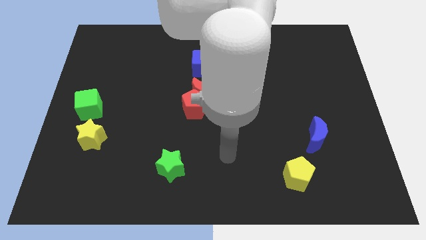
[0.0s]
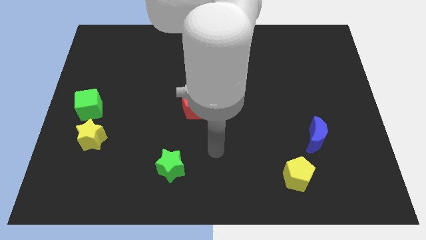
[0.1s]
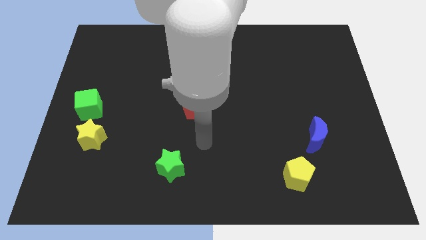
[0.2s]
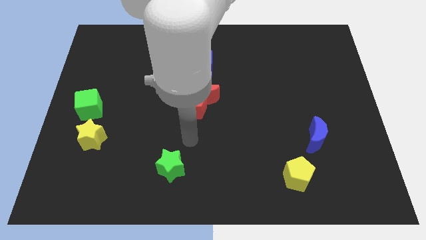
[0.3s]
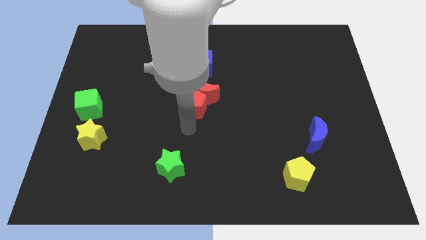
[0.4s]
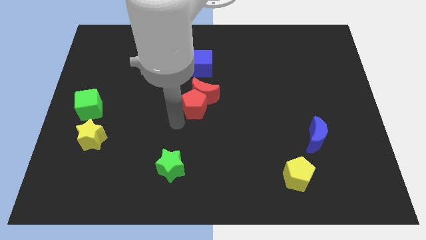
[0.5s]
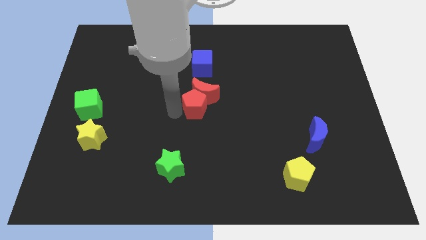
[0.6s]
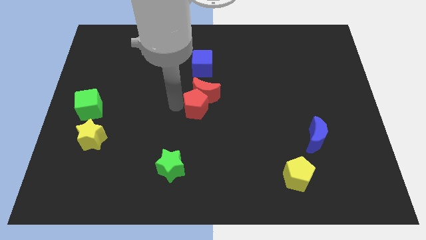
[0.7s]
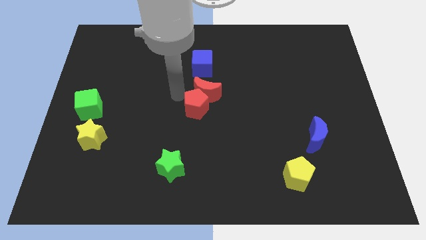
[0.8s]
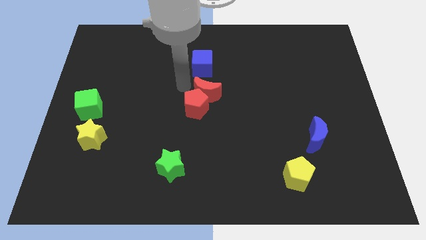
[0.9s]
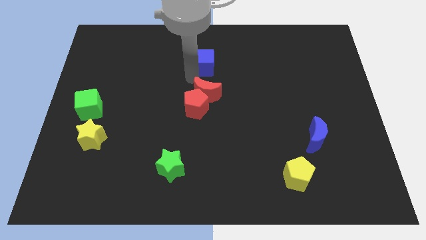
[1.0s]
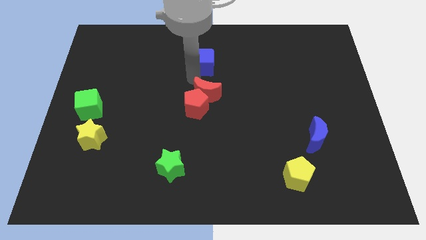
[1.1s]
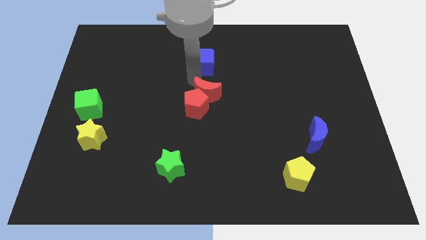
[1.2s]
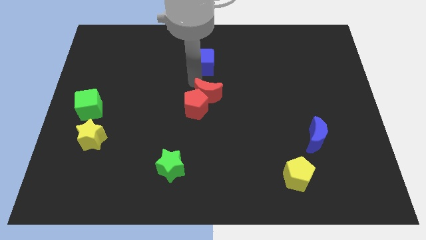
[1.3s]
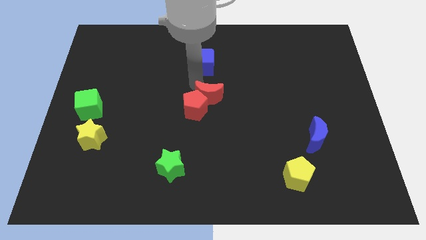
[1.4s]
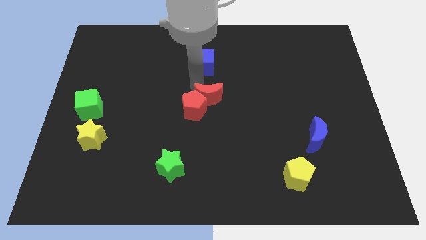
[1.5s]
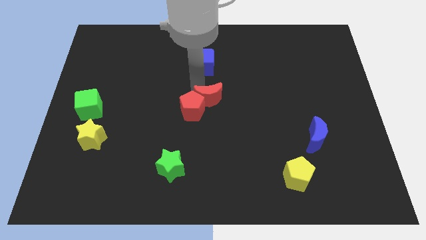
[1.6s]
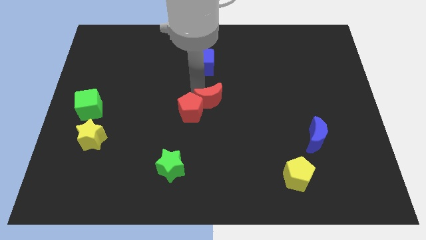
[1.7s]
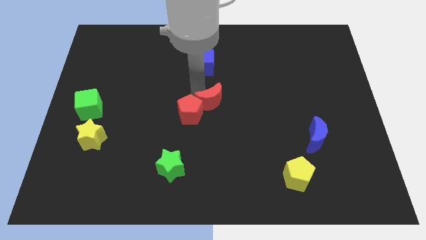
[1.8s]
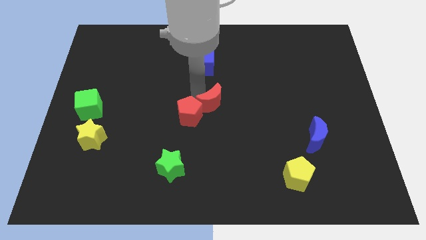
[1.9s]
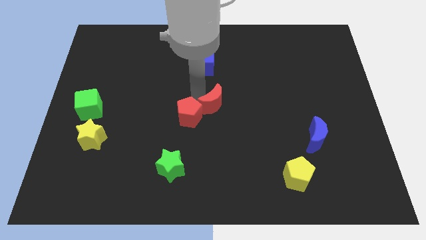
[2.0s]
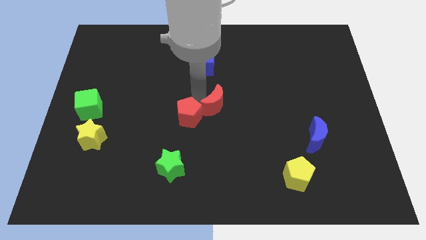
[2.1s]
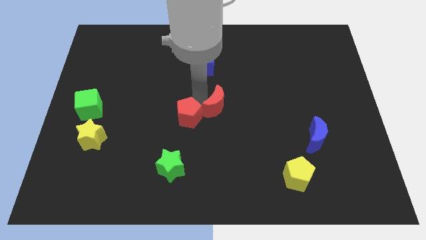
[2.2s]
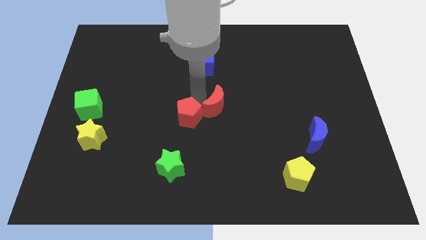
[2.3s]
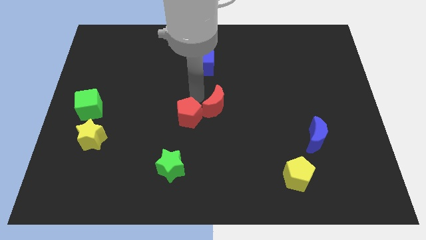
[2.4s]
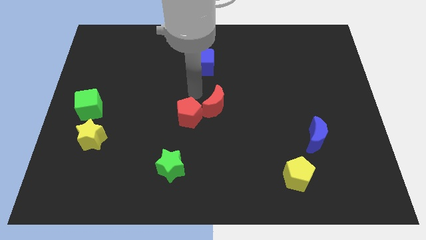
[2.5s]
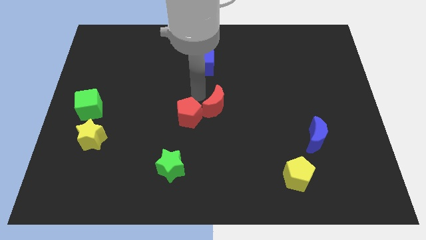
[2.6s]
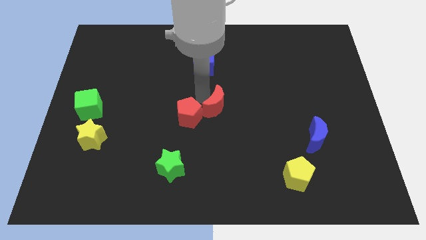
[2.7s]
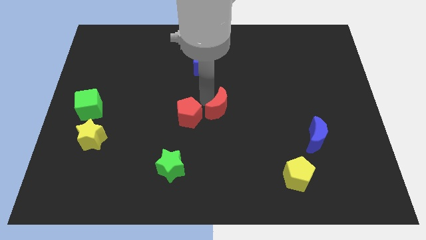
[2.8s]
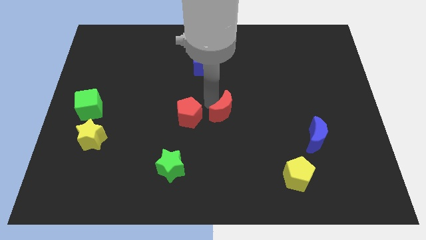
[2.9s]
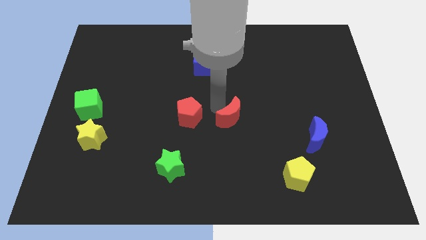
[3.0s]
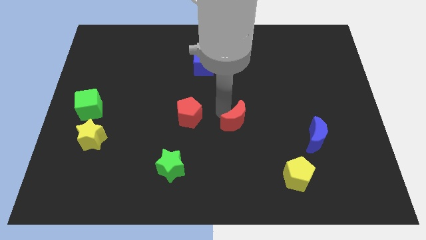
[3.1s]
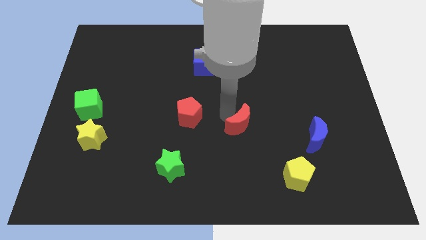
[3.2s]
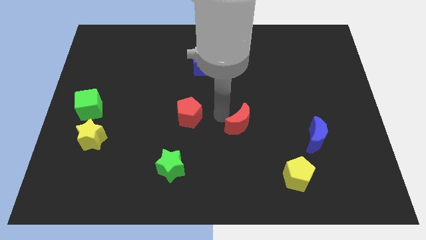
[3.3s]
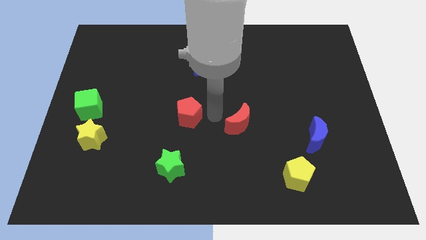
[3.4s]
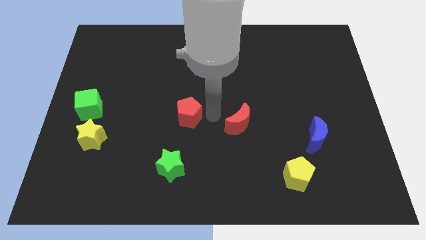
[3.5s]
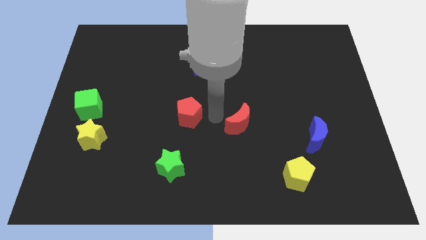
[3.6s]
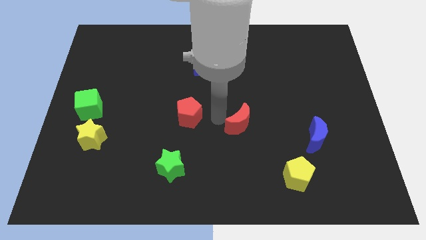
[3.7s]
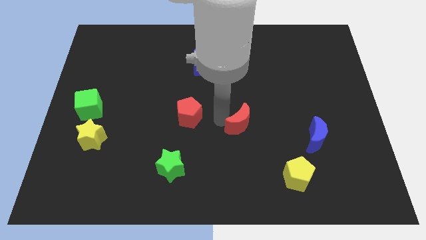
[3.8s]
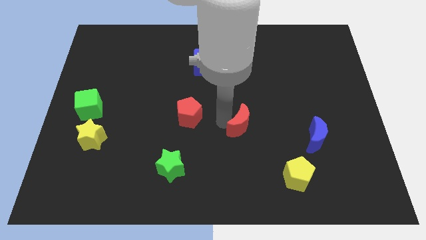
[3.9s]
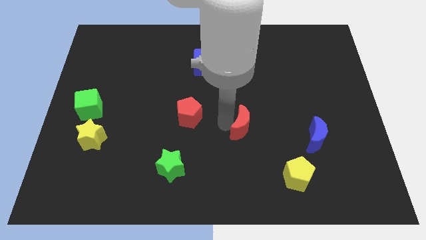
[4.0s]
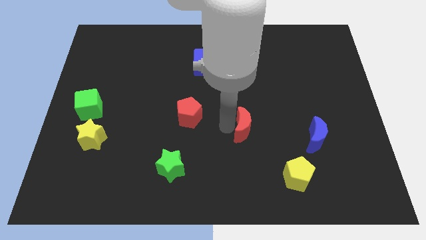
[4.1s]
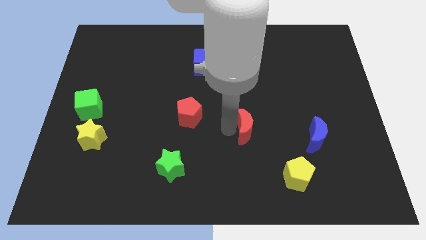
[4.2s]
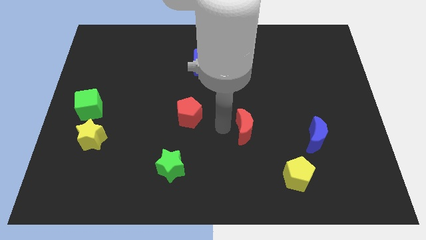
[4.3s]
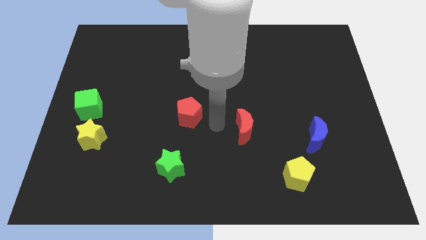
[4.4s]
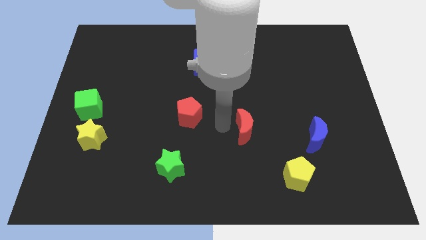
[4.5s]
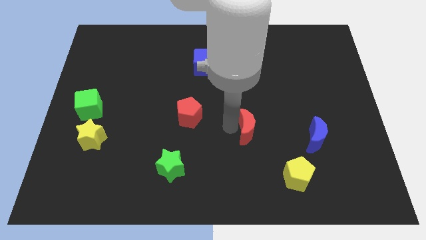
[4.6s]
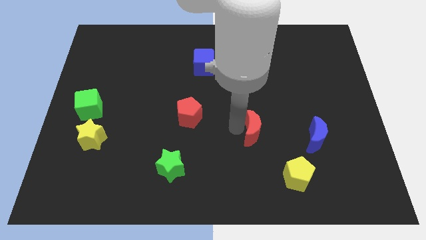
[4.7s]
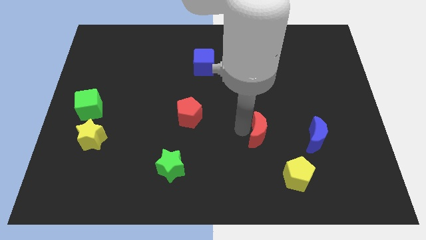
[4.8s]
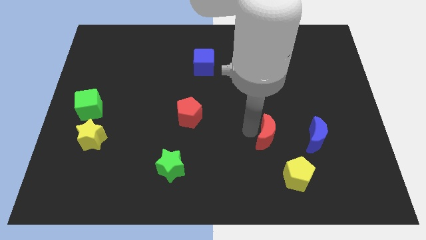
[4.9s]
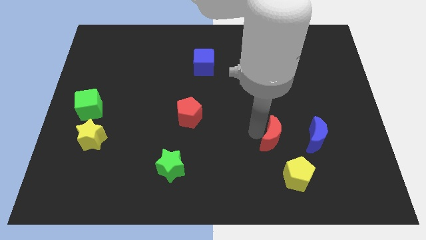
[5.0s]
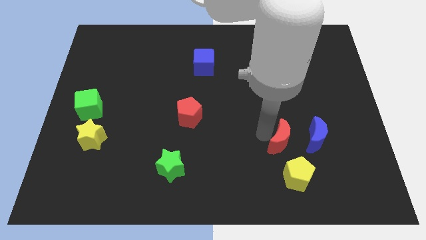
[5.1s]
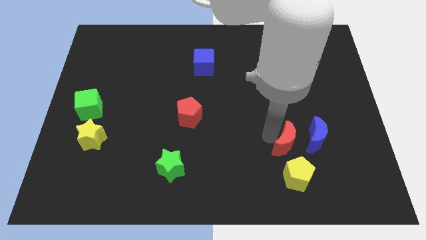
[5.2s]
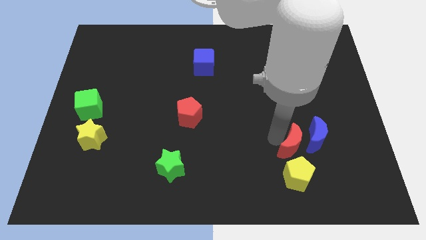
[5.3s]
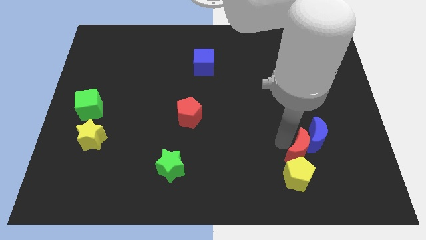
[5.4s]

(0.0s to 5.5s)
slide the red moon diagonally up and to the right of the yellow pentagon

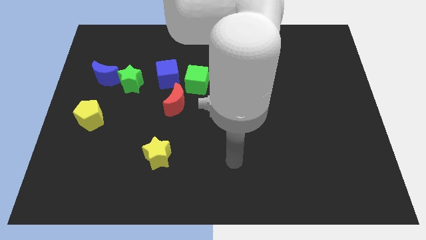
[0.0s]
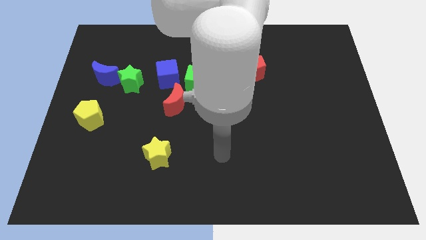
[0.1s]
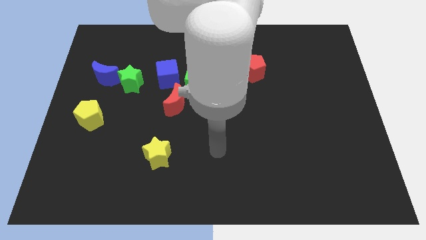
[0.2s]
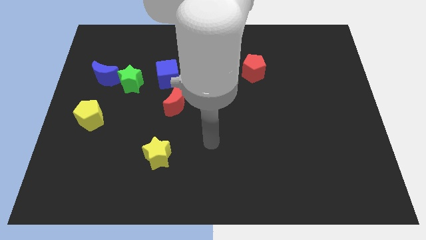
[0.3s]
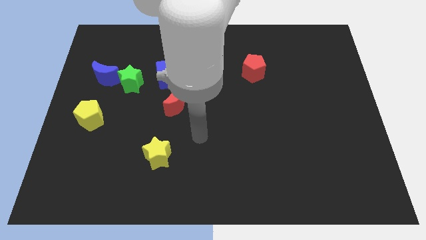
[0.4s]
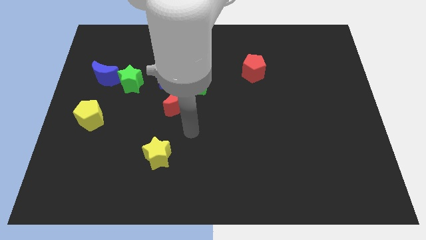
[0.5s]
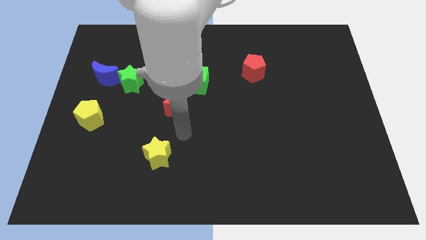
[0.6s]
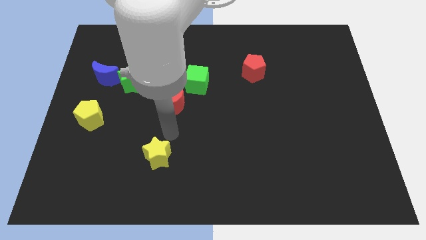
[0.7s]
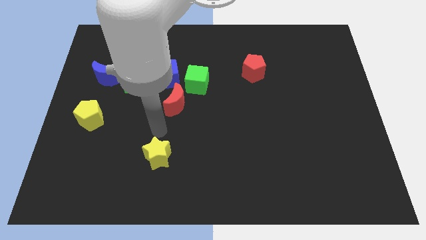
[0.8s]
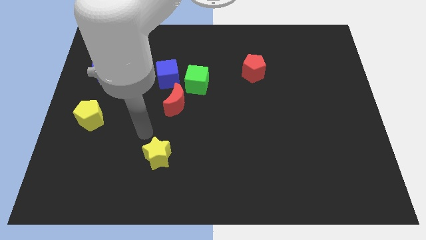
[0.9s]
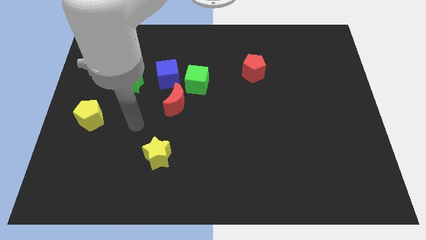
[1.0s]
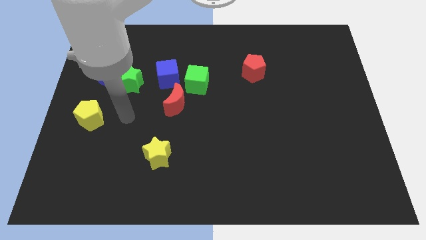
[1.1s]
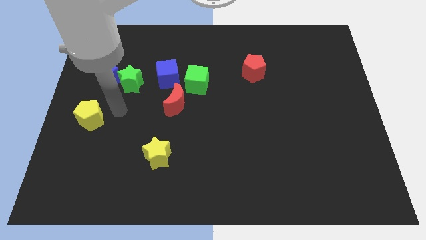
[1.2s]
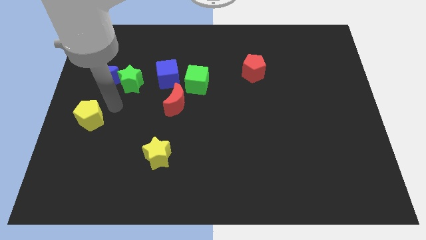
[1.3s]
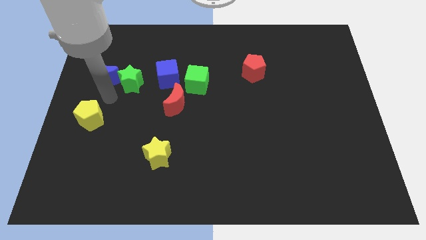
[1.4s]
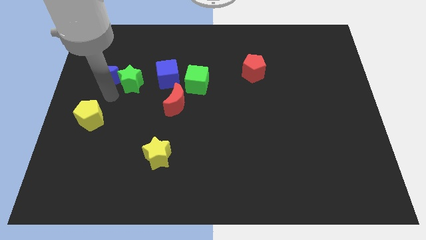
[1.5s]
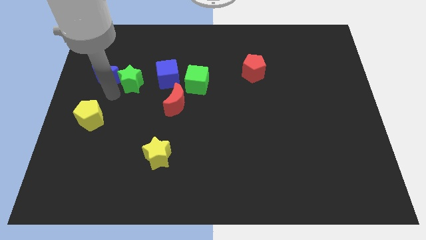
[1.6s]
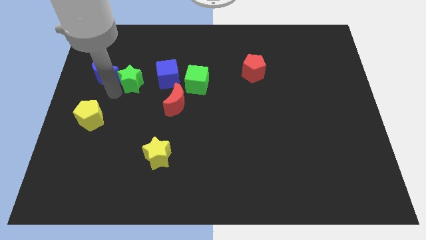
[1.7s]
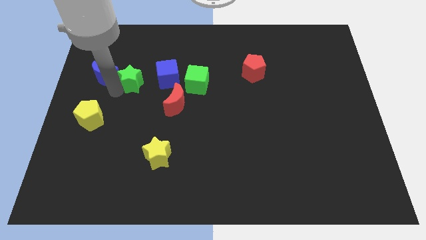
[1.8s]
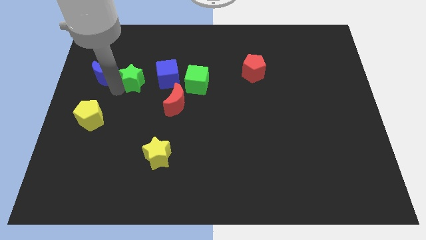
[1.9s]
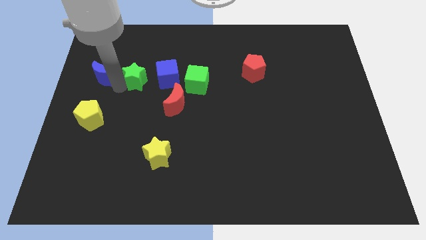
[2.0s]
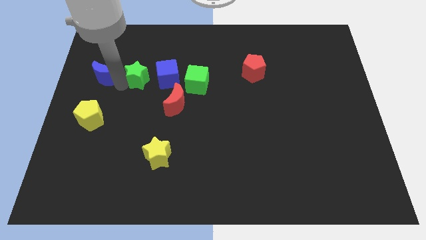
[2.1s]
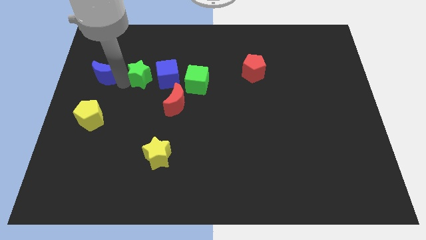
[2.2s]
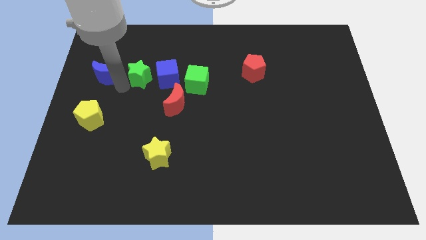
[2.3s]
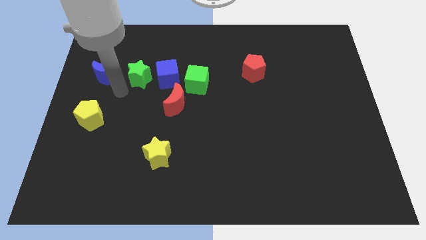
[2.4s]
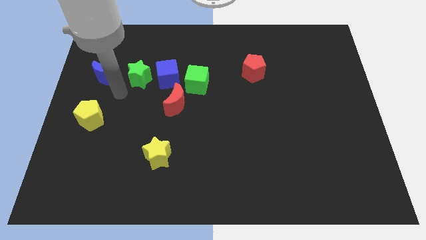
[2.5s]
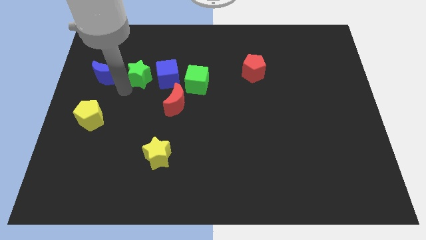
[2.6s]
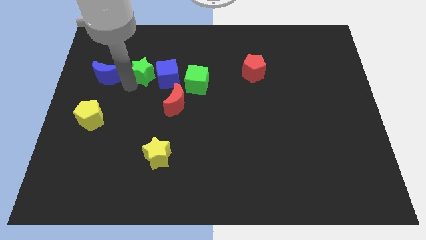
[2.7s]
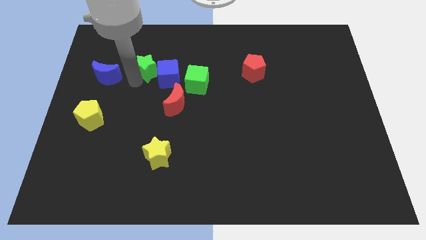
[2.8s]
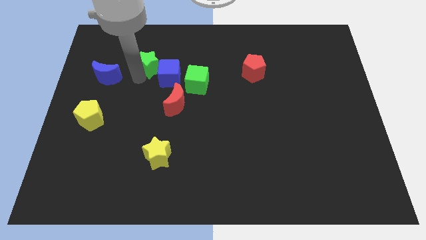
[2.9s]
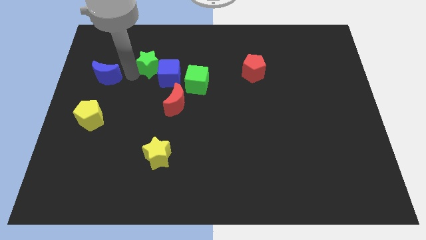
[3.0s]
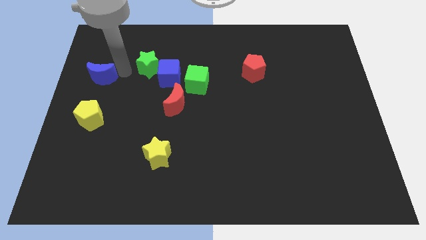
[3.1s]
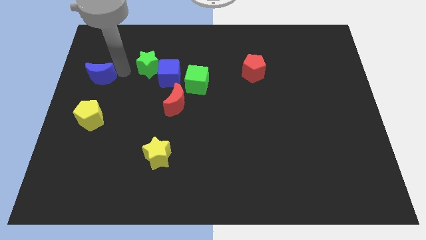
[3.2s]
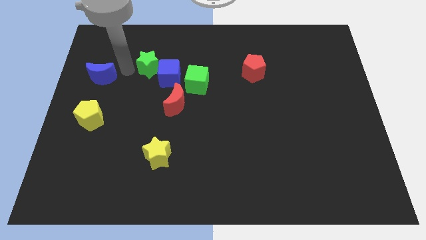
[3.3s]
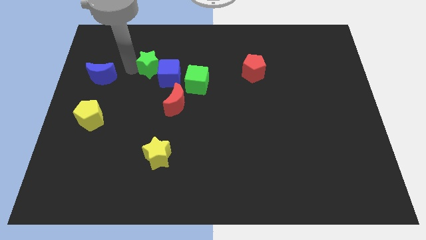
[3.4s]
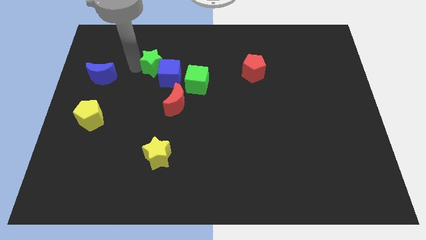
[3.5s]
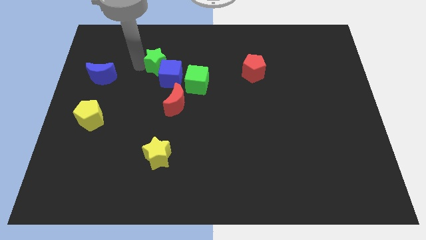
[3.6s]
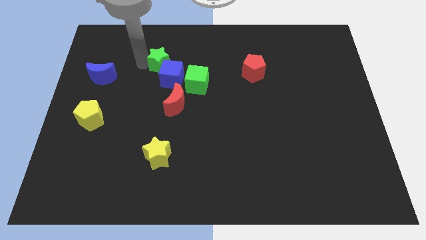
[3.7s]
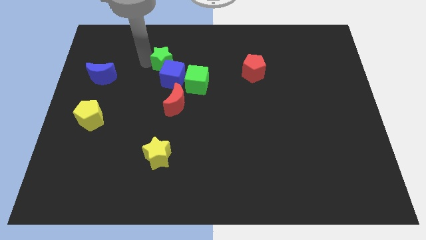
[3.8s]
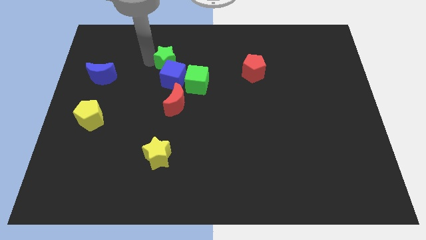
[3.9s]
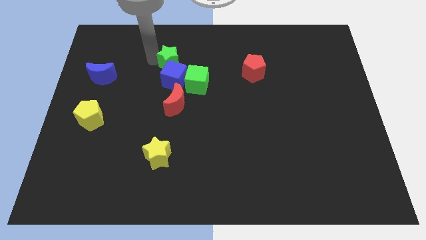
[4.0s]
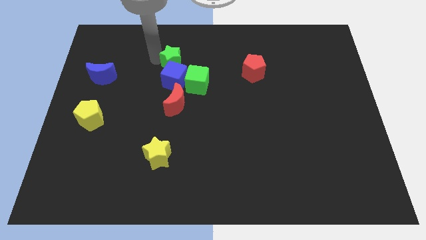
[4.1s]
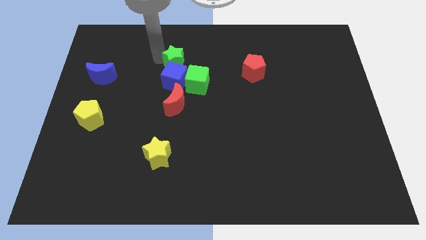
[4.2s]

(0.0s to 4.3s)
move the green star to the top right side of the blue cube
